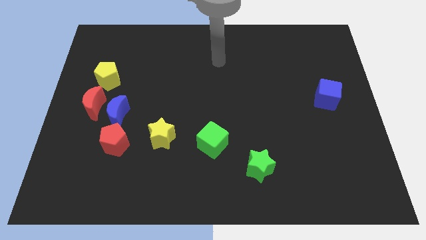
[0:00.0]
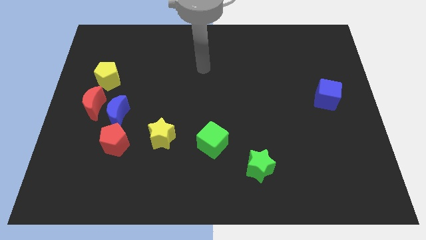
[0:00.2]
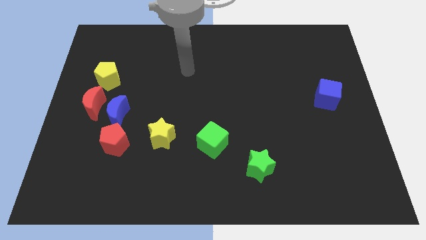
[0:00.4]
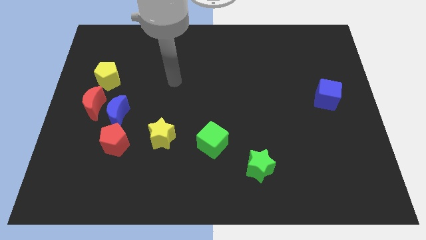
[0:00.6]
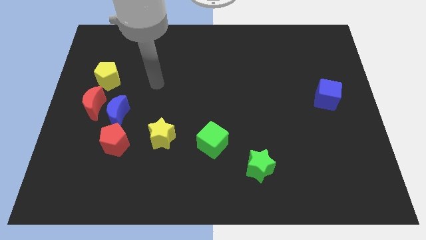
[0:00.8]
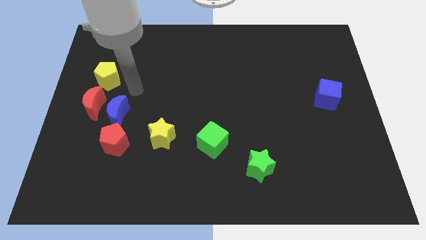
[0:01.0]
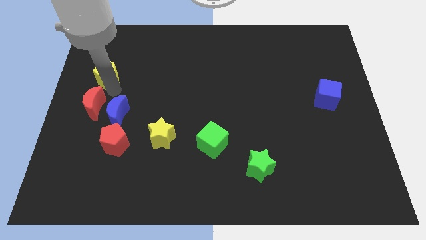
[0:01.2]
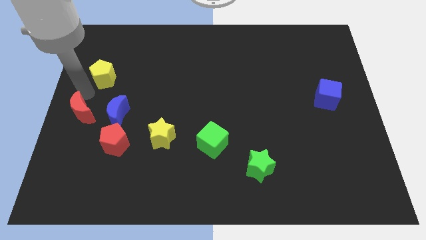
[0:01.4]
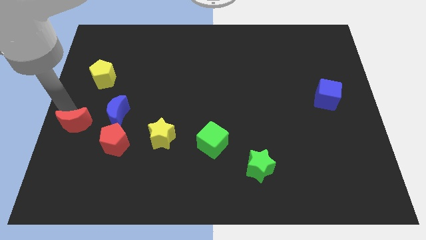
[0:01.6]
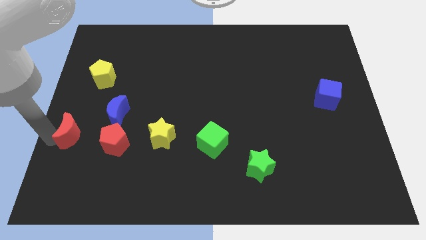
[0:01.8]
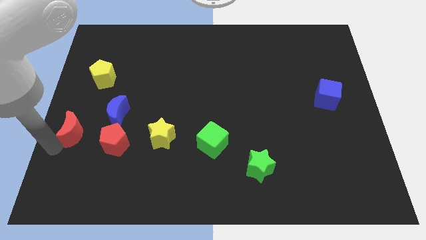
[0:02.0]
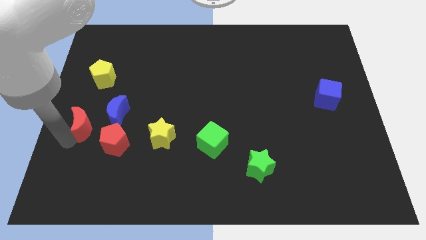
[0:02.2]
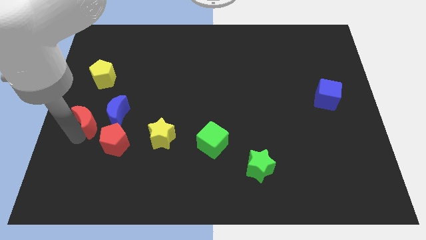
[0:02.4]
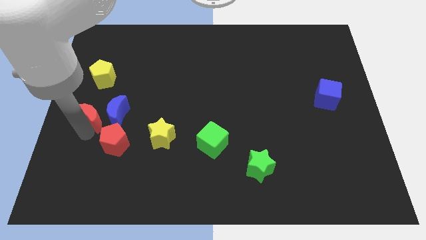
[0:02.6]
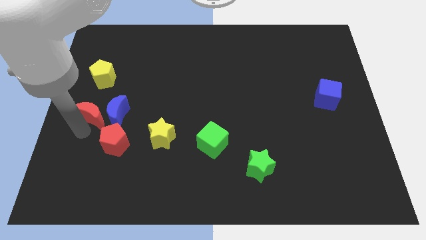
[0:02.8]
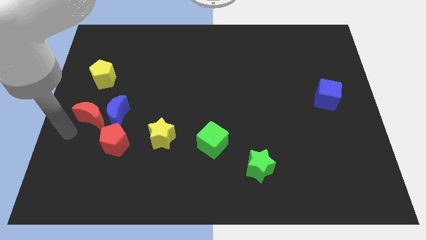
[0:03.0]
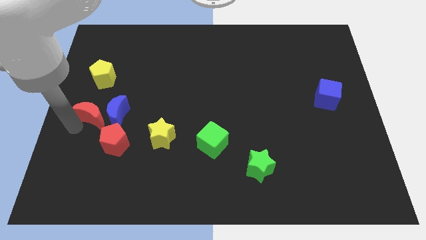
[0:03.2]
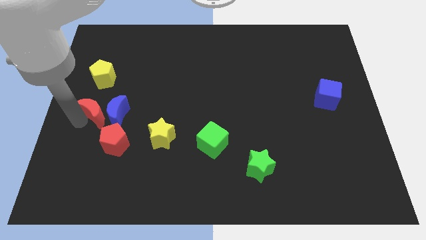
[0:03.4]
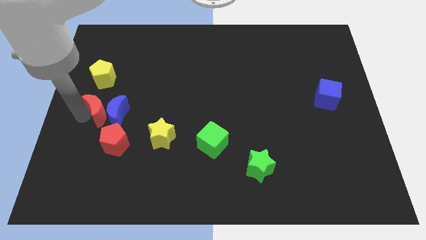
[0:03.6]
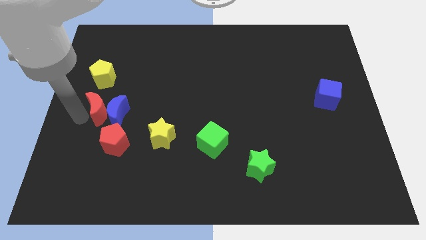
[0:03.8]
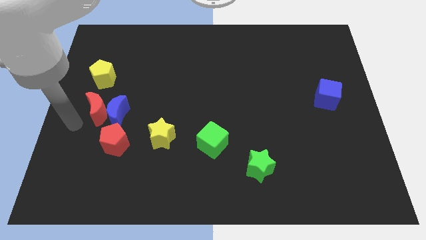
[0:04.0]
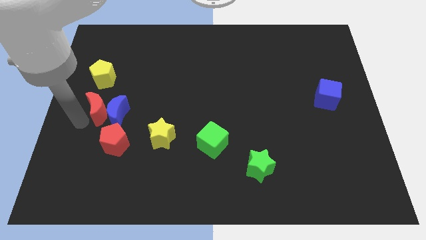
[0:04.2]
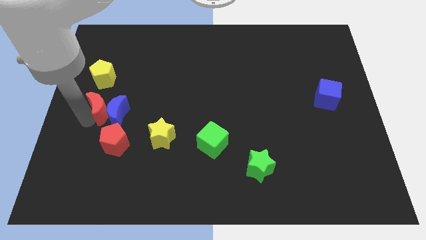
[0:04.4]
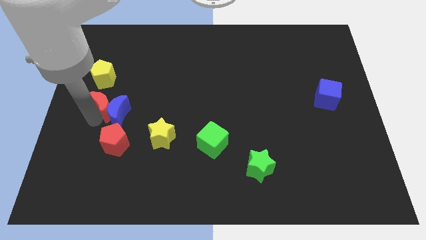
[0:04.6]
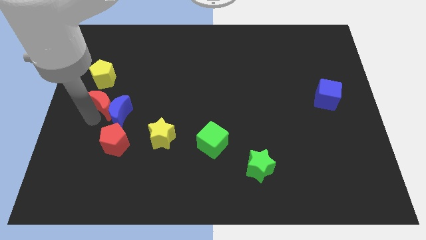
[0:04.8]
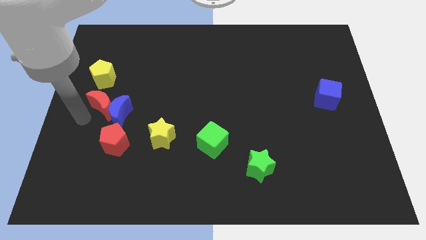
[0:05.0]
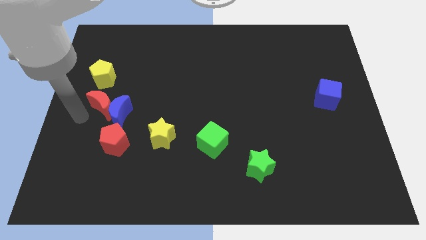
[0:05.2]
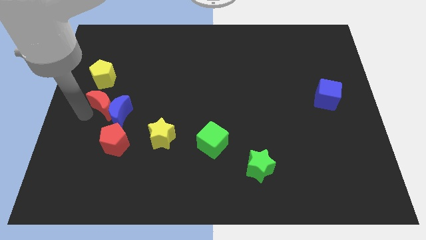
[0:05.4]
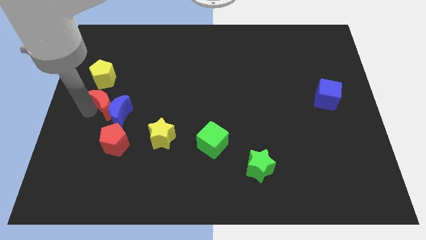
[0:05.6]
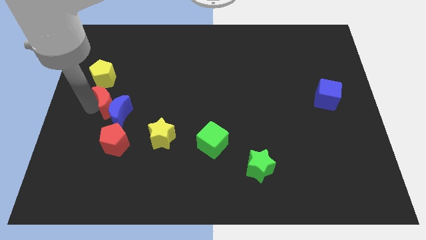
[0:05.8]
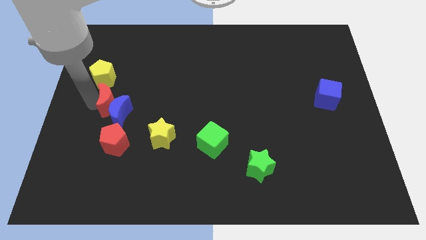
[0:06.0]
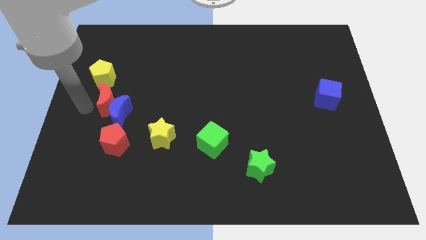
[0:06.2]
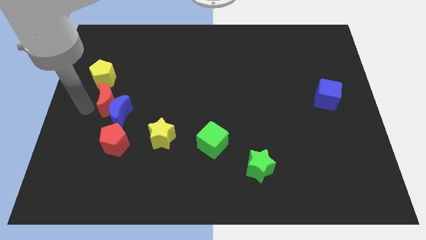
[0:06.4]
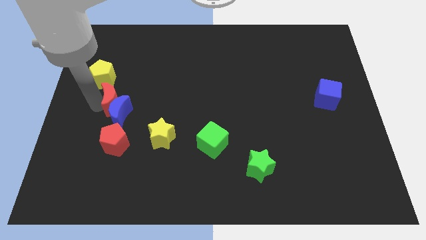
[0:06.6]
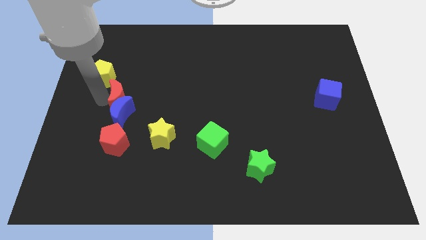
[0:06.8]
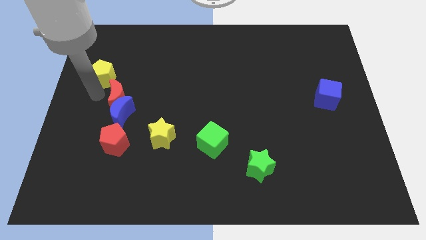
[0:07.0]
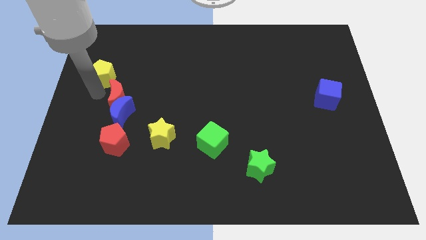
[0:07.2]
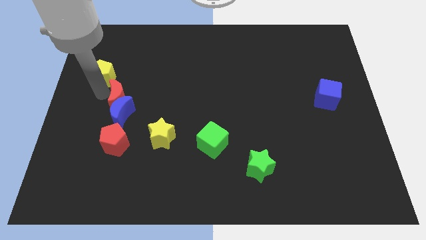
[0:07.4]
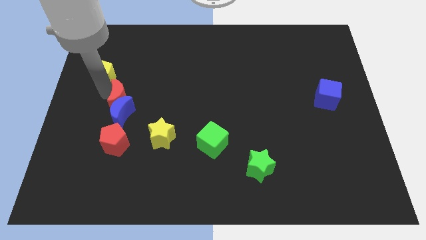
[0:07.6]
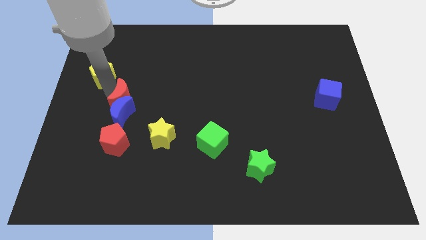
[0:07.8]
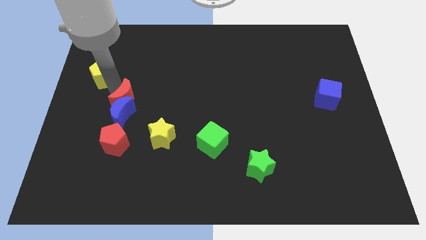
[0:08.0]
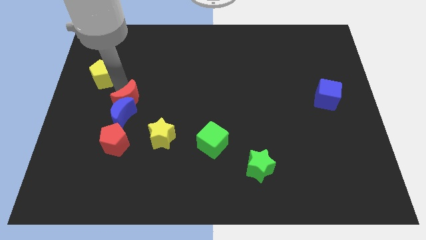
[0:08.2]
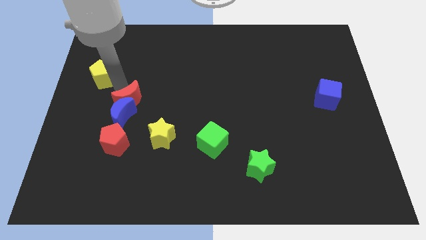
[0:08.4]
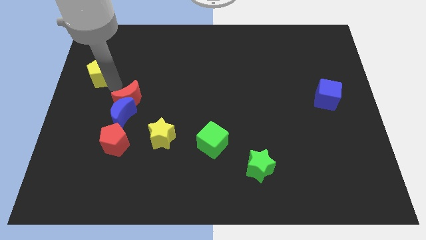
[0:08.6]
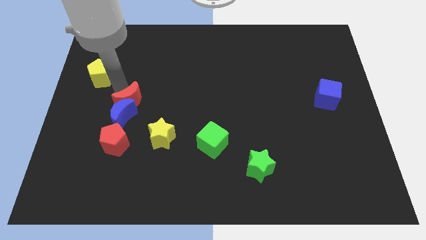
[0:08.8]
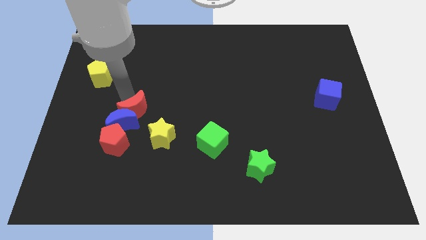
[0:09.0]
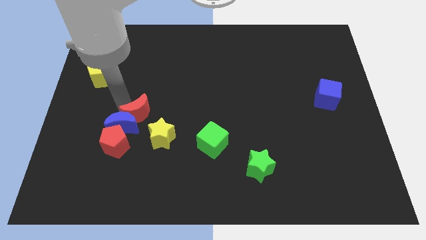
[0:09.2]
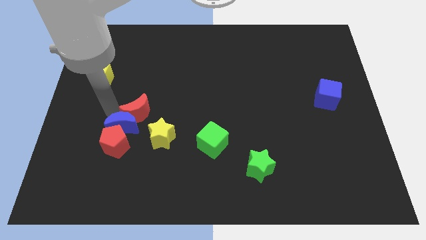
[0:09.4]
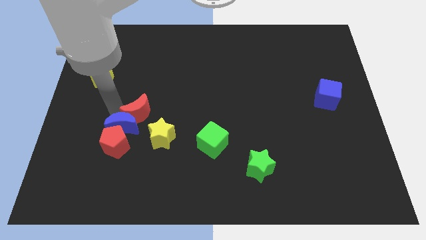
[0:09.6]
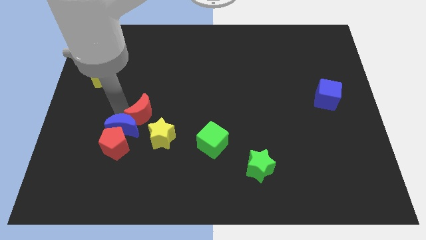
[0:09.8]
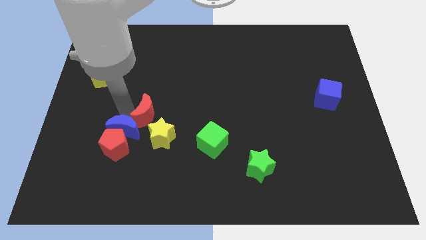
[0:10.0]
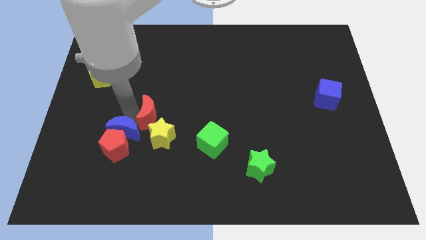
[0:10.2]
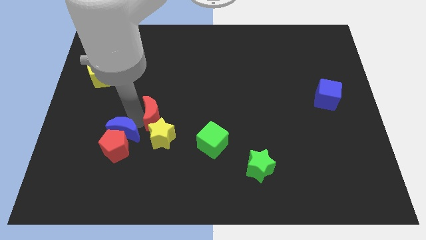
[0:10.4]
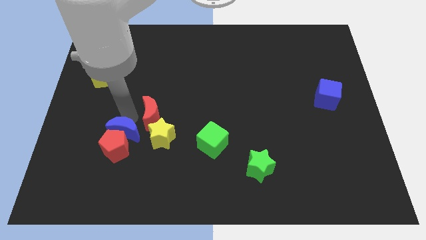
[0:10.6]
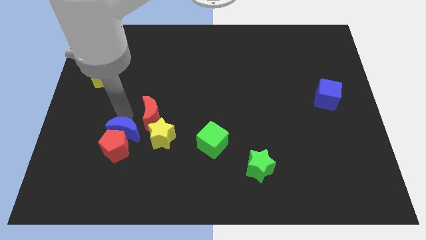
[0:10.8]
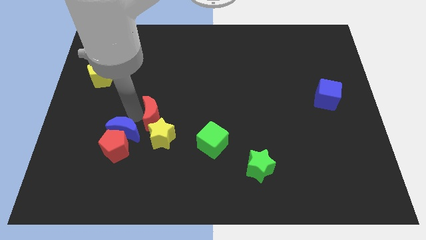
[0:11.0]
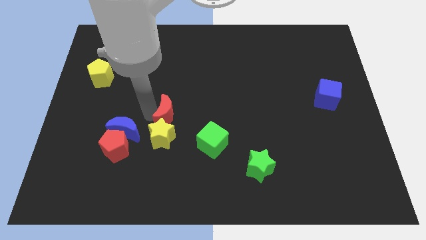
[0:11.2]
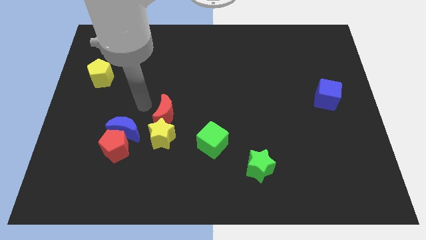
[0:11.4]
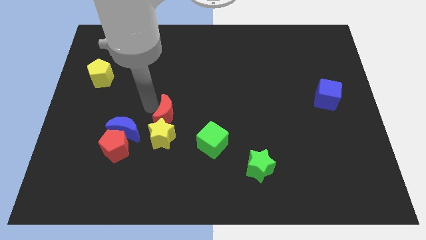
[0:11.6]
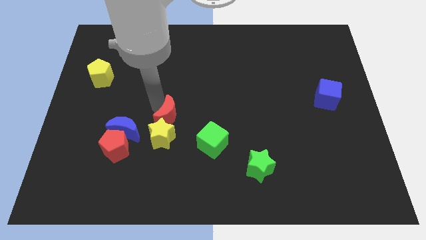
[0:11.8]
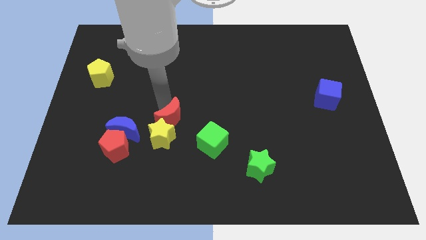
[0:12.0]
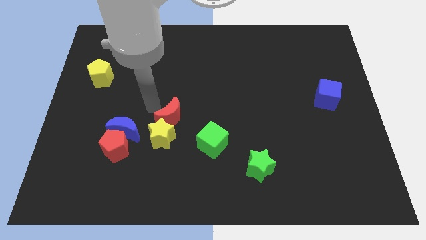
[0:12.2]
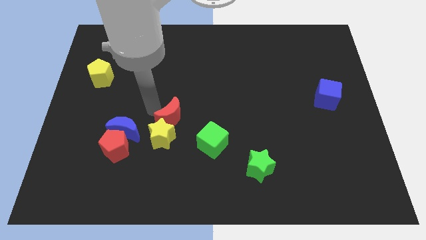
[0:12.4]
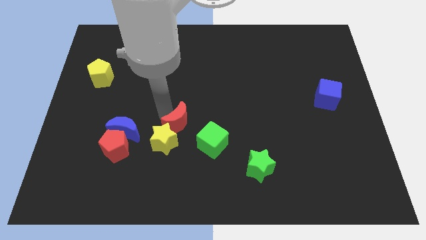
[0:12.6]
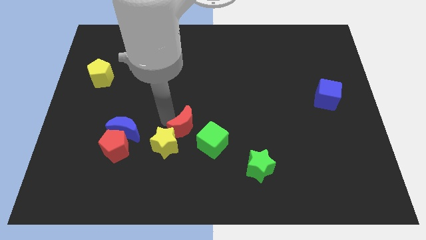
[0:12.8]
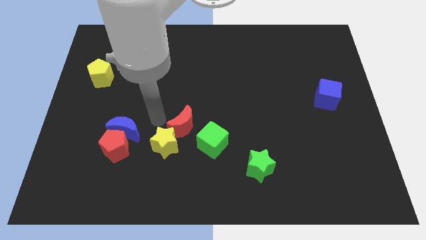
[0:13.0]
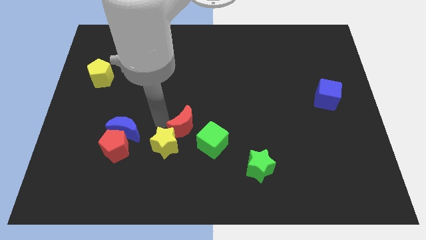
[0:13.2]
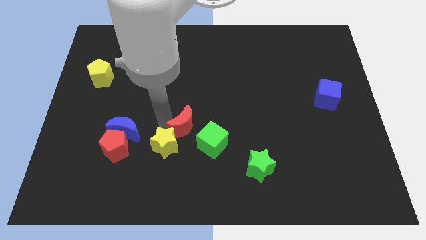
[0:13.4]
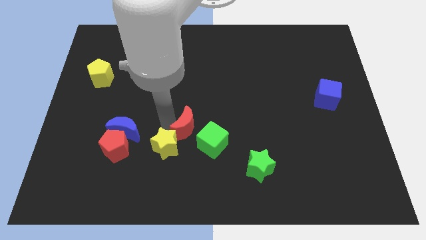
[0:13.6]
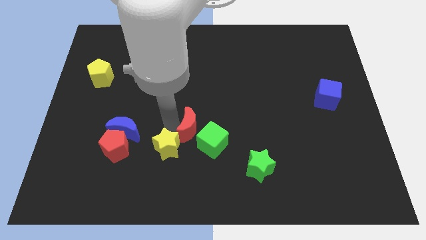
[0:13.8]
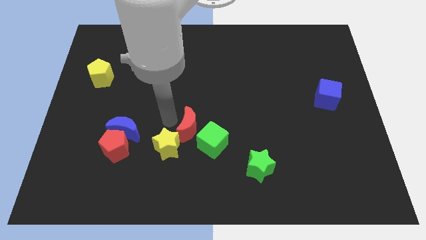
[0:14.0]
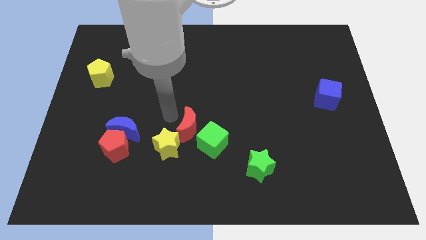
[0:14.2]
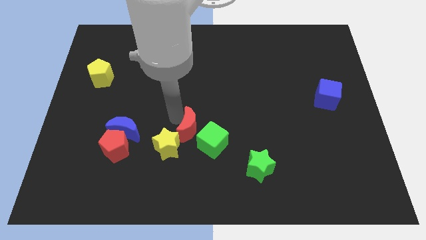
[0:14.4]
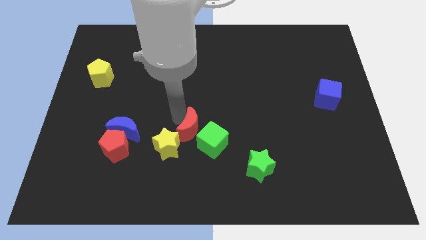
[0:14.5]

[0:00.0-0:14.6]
push the red moon close to the green cube
